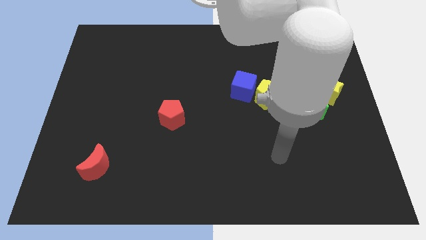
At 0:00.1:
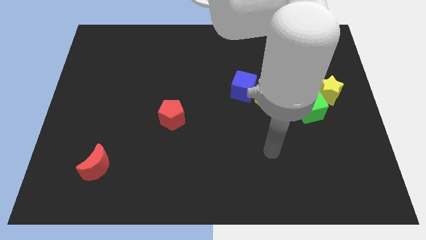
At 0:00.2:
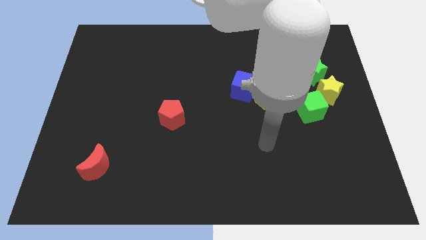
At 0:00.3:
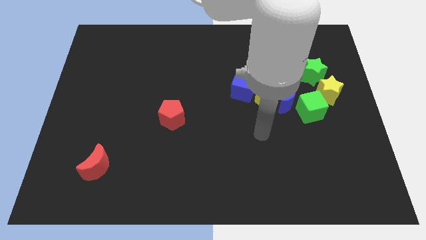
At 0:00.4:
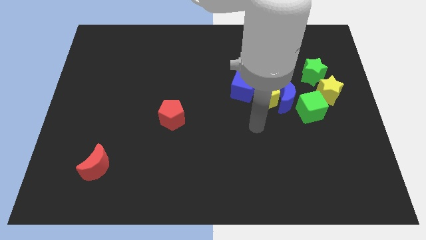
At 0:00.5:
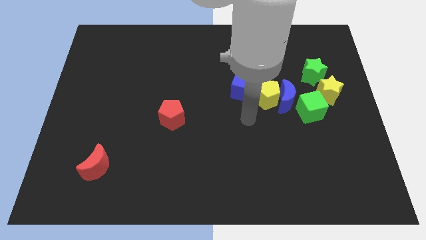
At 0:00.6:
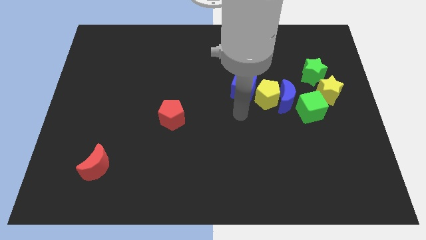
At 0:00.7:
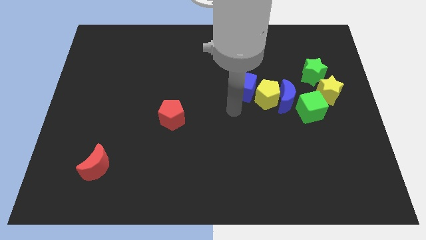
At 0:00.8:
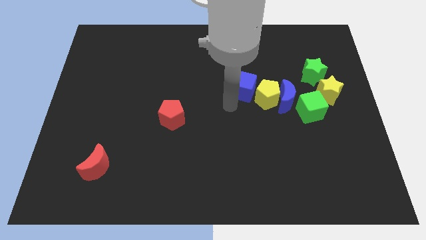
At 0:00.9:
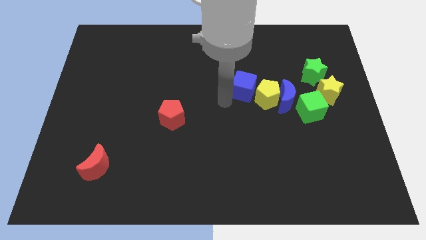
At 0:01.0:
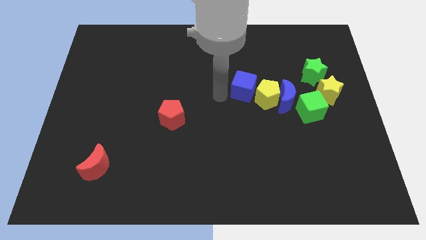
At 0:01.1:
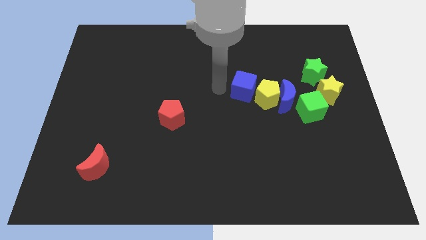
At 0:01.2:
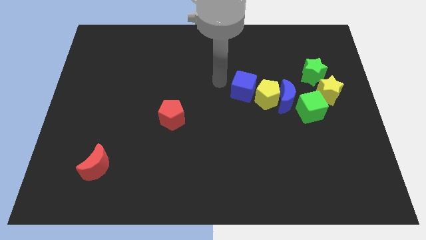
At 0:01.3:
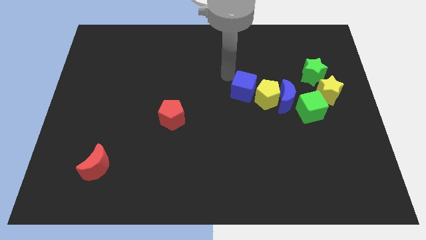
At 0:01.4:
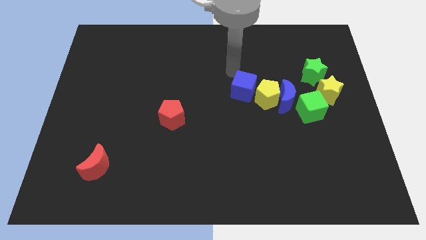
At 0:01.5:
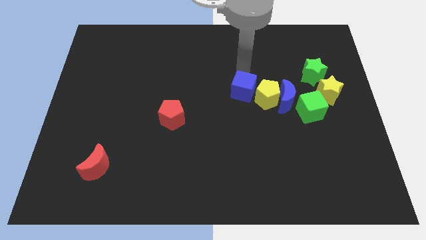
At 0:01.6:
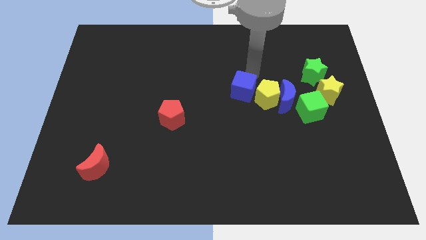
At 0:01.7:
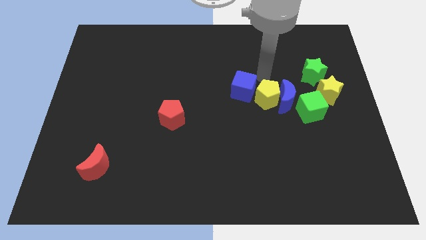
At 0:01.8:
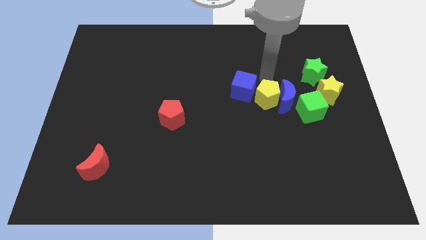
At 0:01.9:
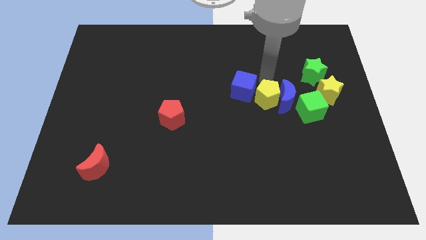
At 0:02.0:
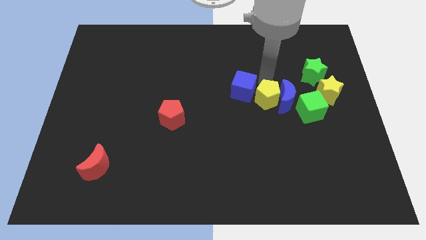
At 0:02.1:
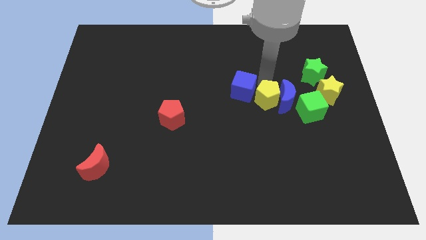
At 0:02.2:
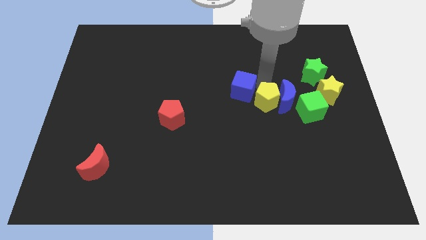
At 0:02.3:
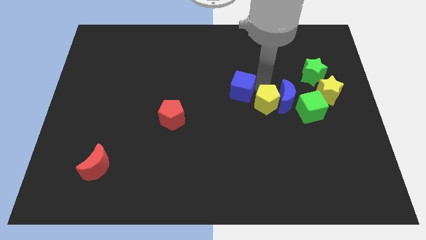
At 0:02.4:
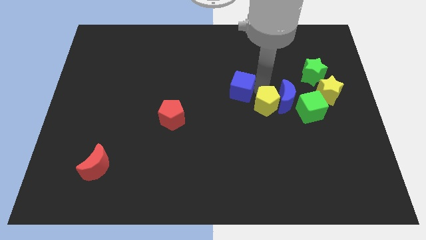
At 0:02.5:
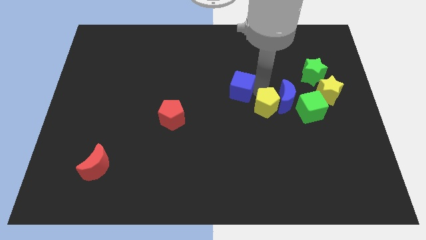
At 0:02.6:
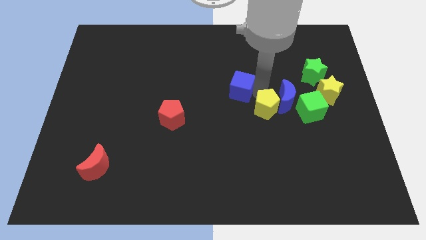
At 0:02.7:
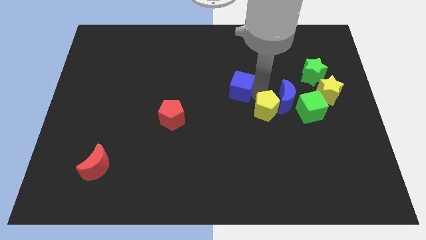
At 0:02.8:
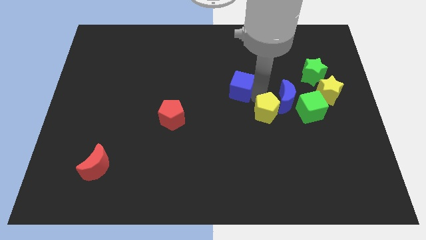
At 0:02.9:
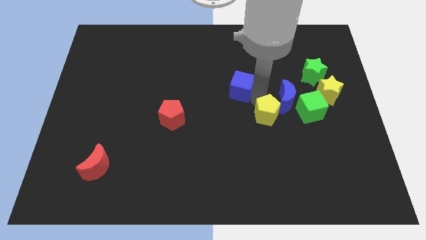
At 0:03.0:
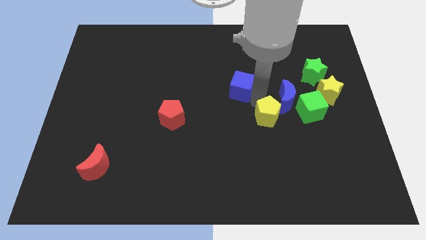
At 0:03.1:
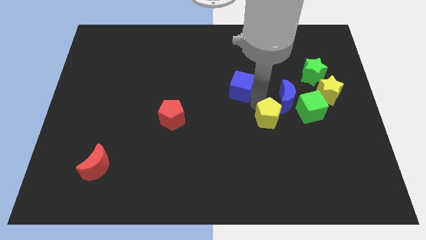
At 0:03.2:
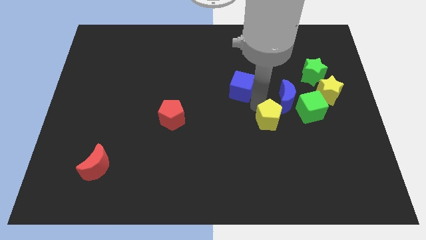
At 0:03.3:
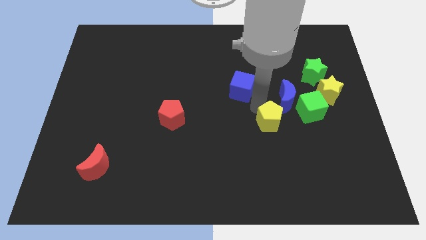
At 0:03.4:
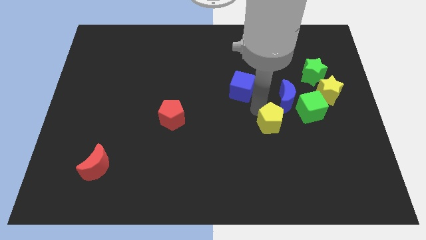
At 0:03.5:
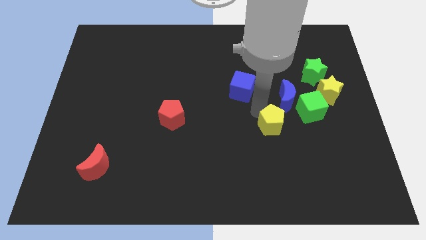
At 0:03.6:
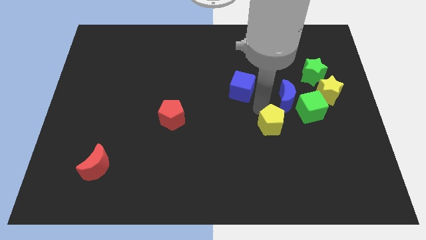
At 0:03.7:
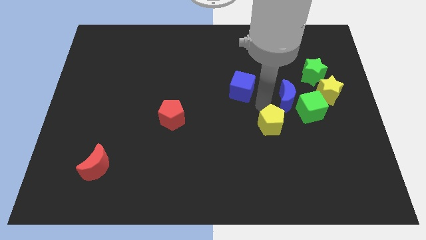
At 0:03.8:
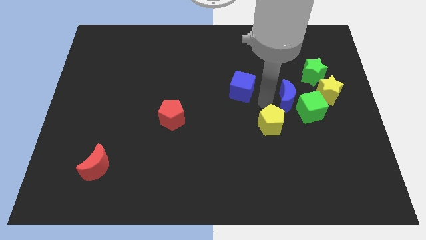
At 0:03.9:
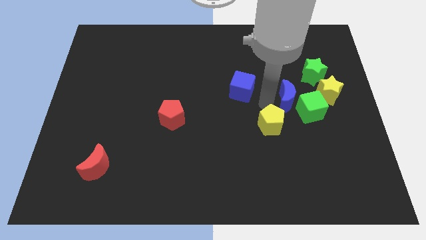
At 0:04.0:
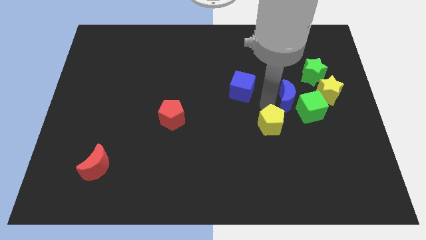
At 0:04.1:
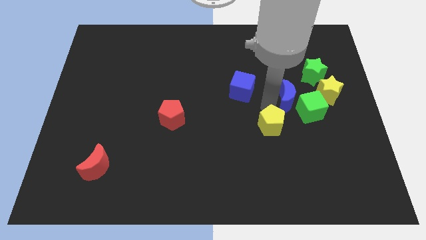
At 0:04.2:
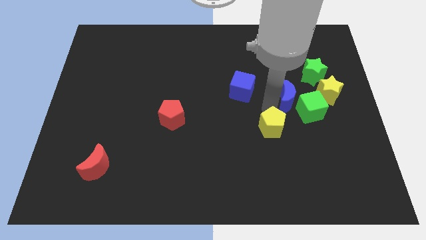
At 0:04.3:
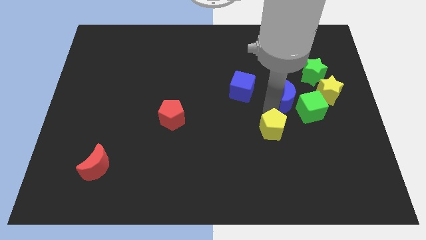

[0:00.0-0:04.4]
move the yellow pentagon away from the blue moon and blue cube

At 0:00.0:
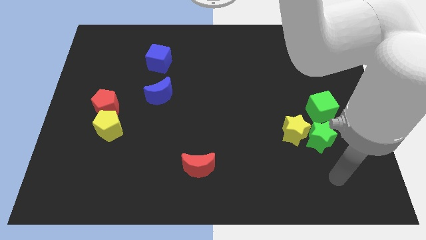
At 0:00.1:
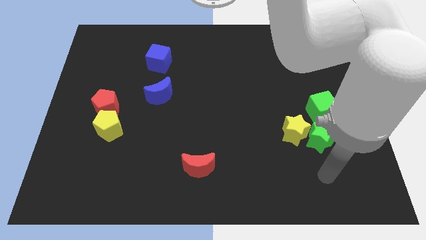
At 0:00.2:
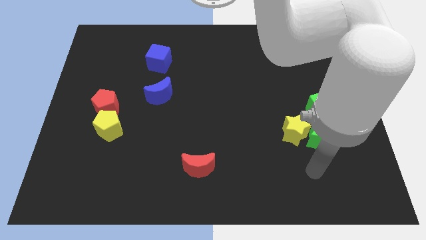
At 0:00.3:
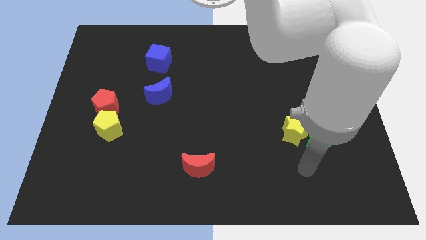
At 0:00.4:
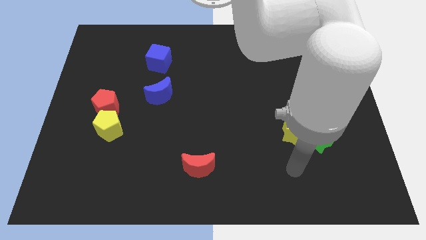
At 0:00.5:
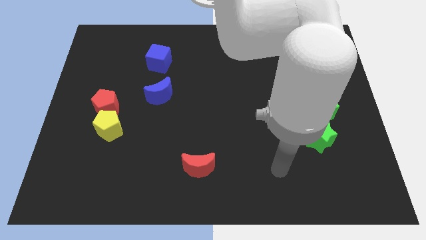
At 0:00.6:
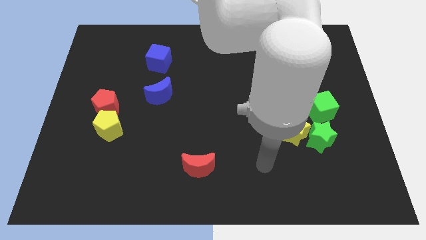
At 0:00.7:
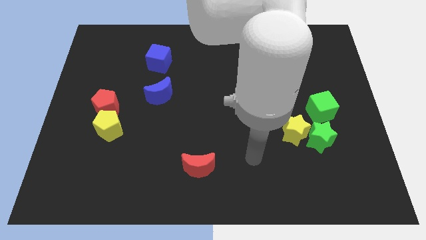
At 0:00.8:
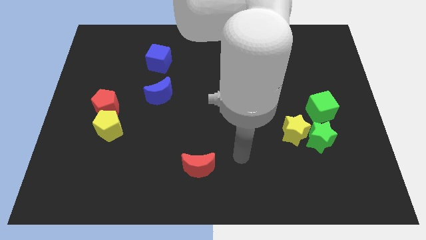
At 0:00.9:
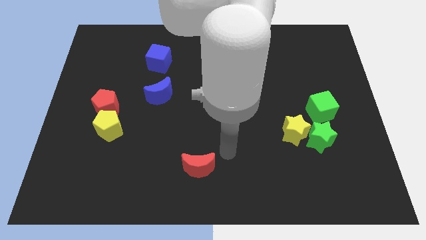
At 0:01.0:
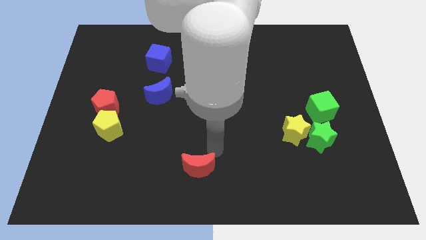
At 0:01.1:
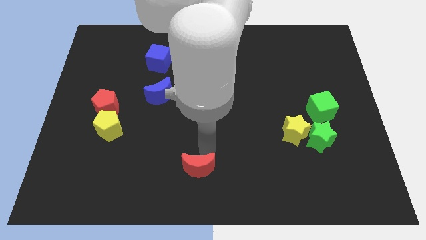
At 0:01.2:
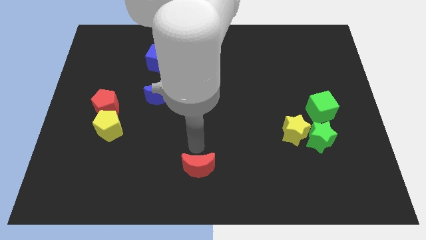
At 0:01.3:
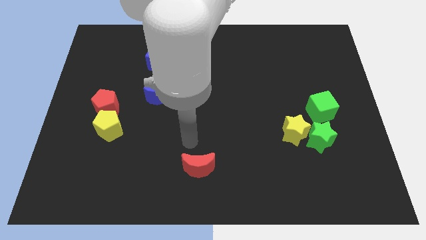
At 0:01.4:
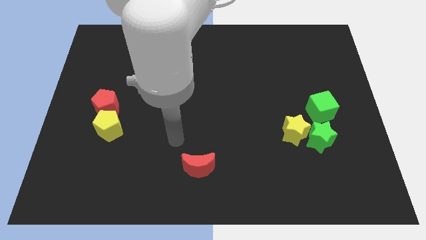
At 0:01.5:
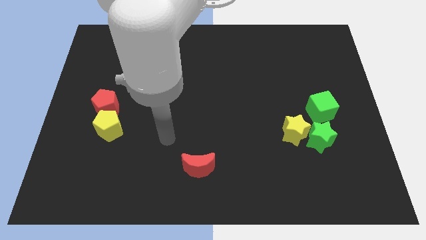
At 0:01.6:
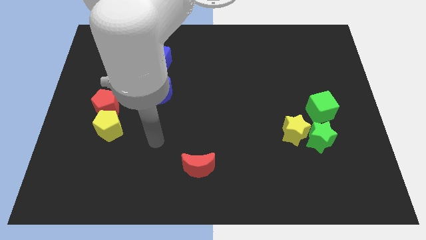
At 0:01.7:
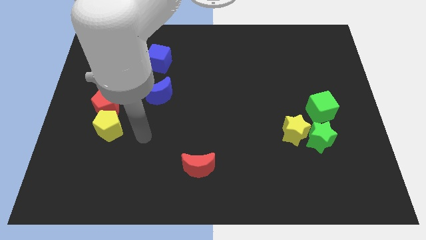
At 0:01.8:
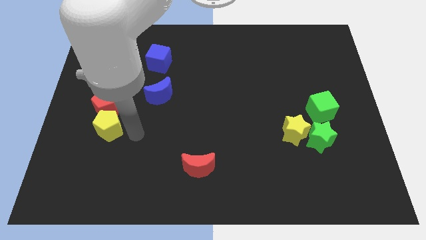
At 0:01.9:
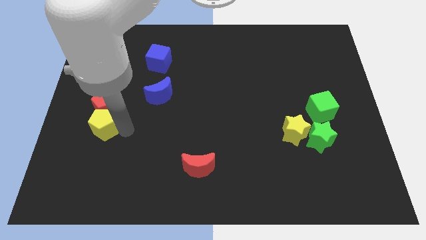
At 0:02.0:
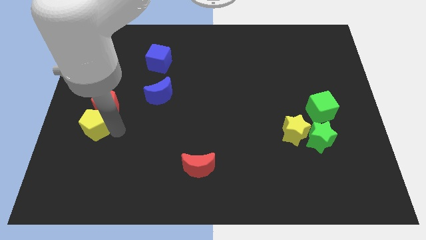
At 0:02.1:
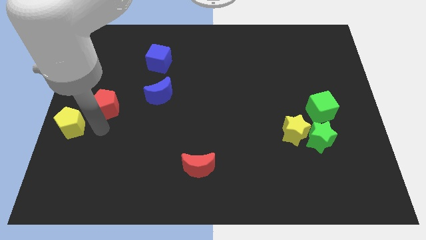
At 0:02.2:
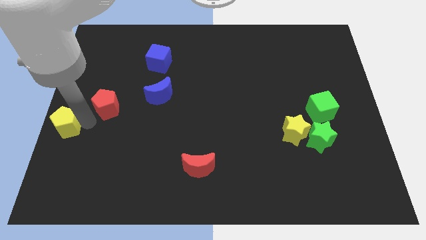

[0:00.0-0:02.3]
separate the red pentagon from the yellow pentagon

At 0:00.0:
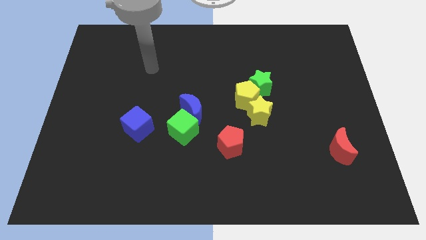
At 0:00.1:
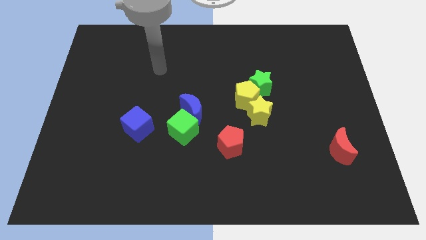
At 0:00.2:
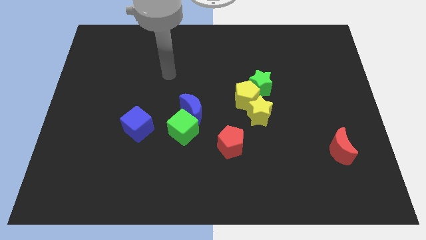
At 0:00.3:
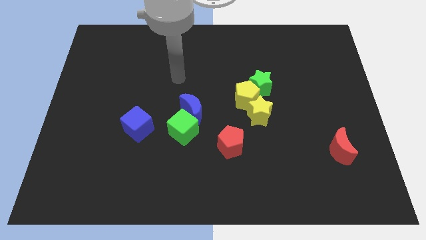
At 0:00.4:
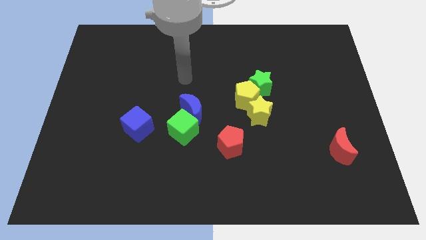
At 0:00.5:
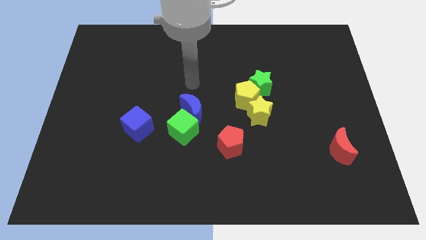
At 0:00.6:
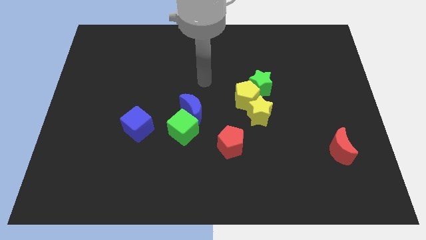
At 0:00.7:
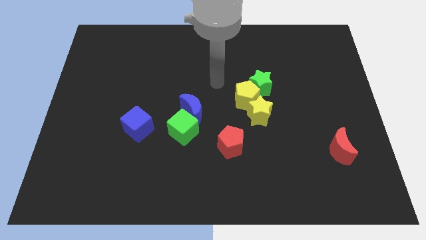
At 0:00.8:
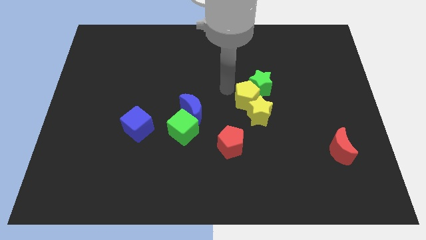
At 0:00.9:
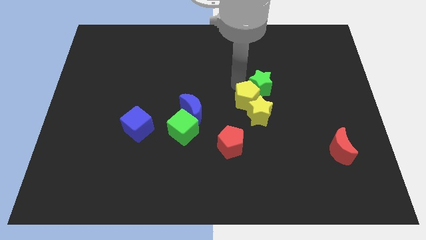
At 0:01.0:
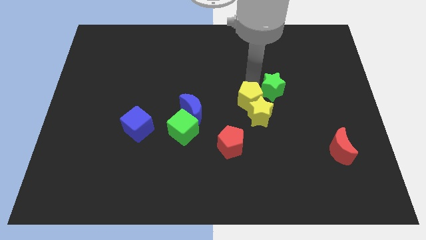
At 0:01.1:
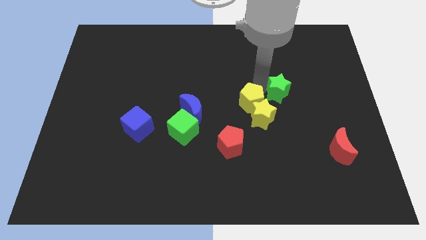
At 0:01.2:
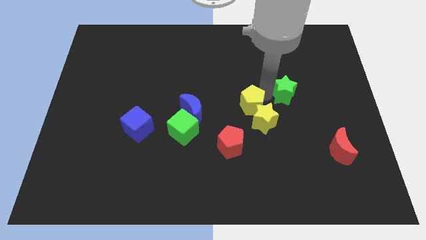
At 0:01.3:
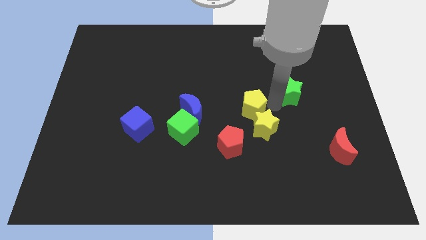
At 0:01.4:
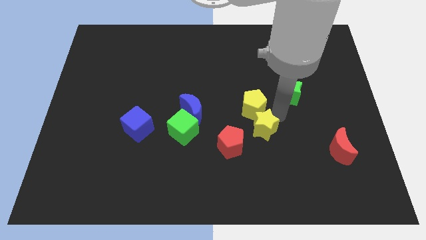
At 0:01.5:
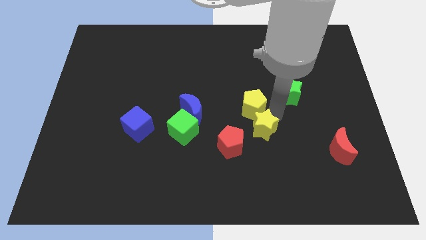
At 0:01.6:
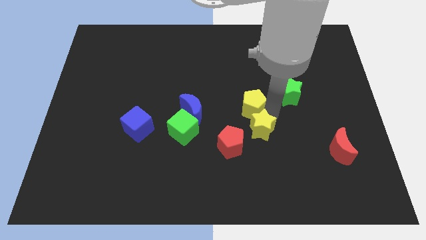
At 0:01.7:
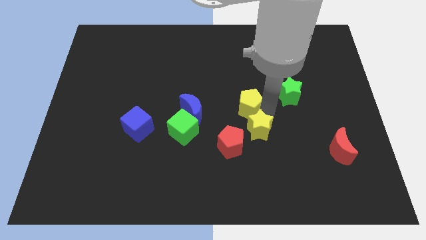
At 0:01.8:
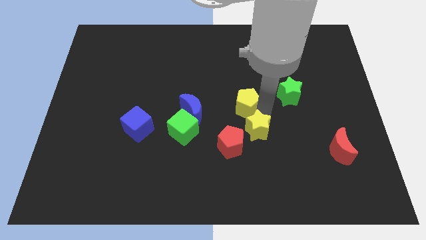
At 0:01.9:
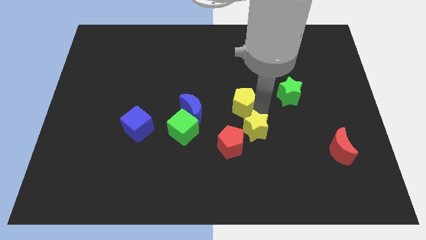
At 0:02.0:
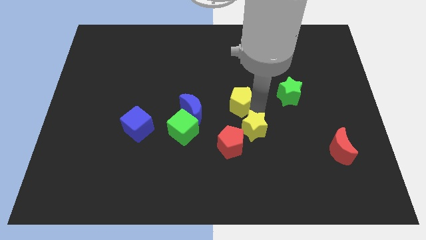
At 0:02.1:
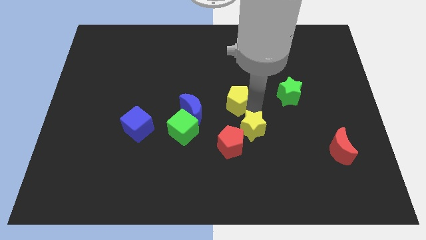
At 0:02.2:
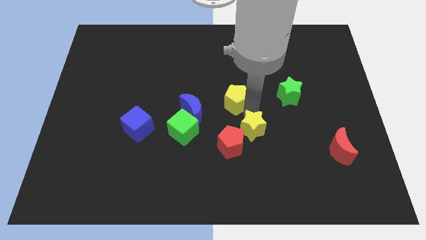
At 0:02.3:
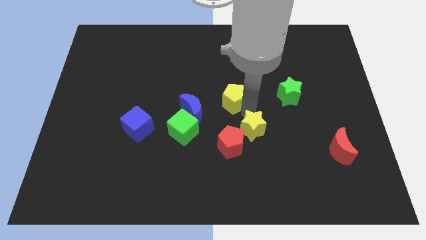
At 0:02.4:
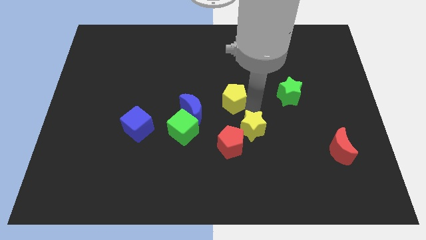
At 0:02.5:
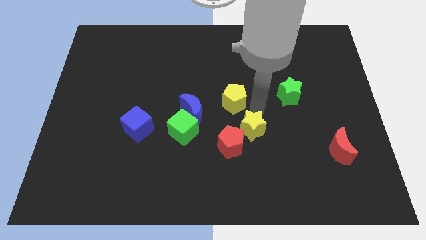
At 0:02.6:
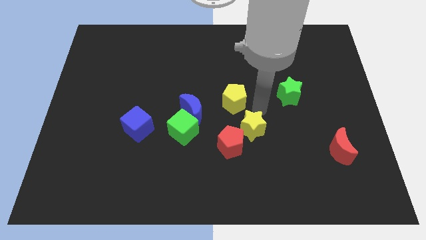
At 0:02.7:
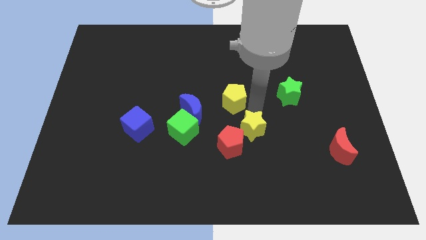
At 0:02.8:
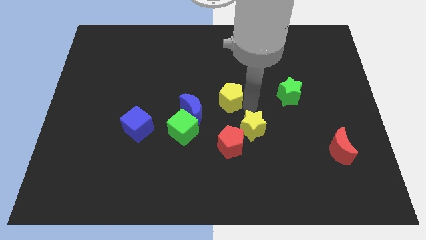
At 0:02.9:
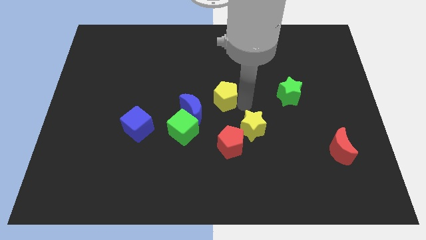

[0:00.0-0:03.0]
pull the yellow pentagon apart from the yellow star and green star
